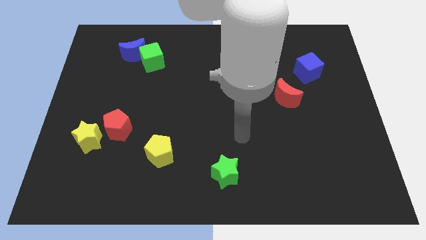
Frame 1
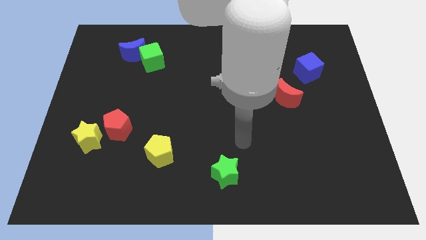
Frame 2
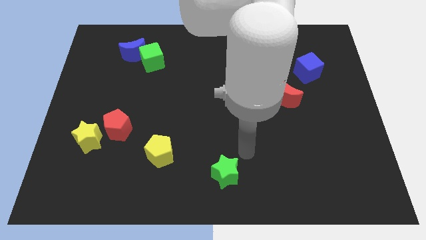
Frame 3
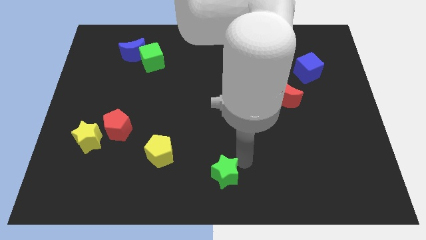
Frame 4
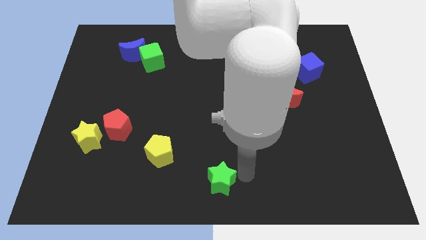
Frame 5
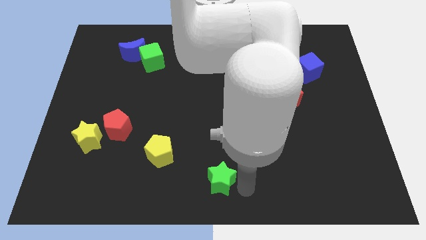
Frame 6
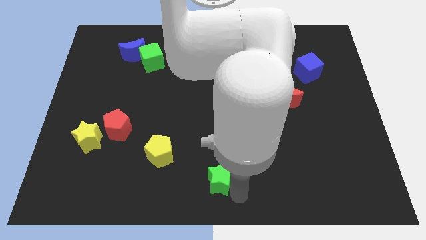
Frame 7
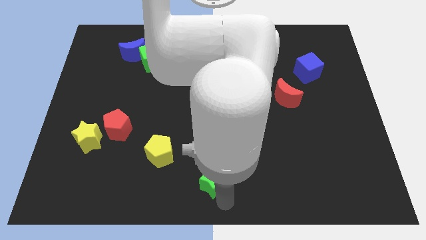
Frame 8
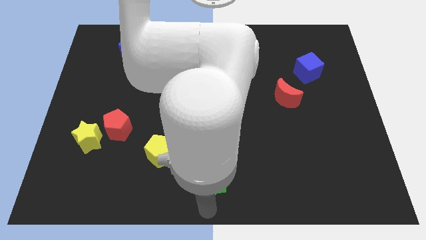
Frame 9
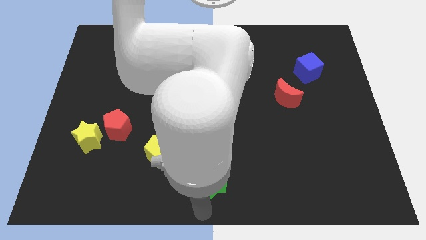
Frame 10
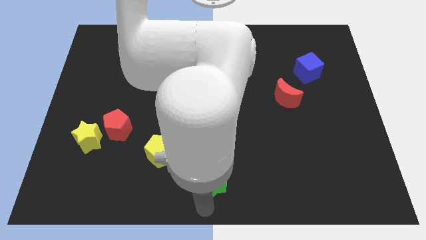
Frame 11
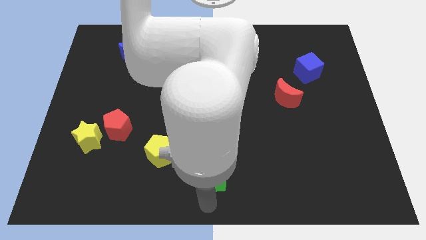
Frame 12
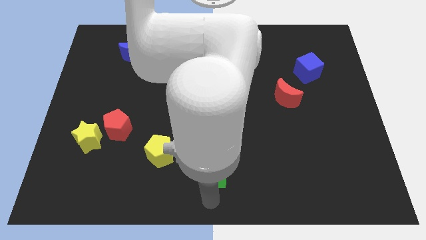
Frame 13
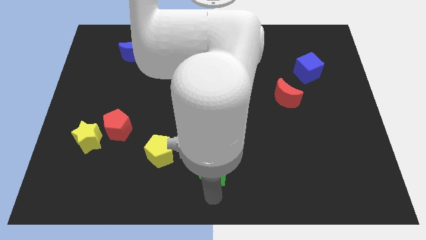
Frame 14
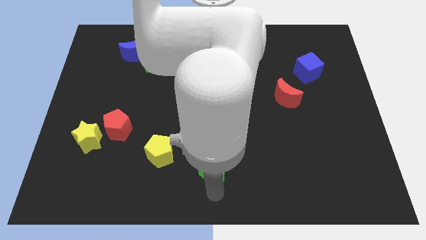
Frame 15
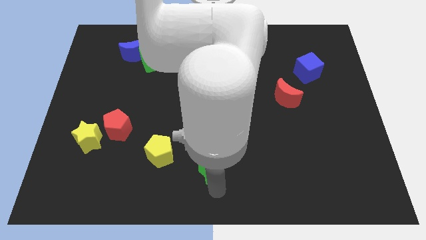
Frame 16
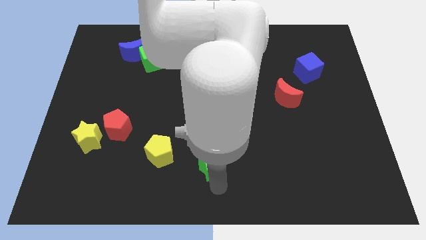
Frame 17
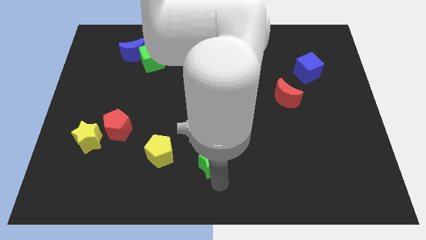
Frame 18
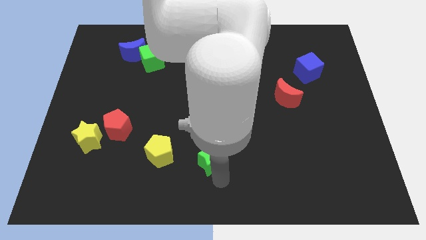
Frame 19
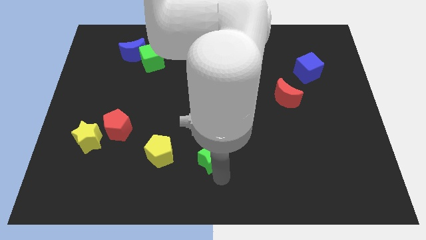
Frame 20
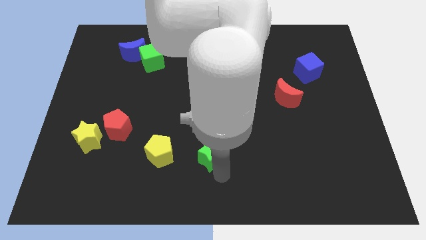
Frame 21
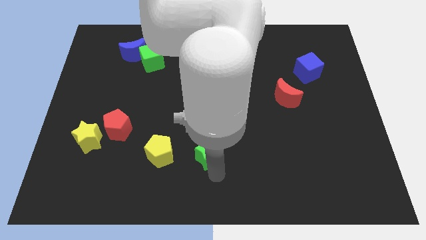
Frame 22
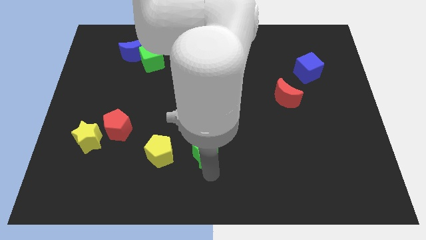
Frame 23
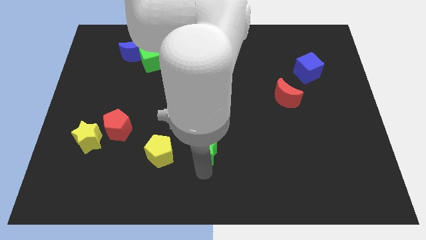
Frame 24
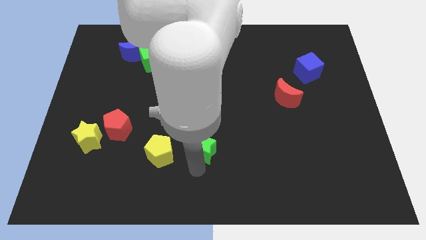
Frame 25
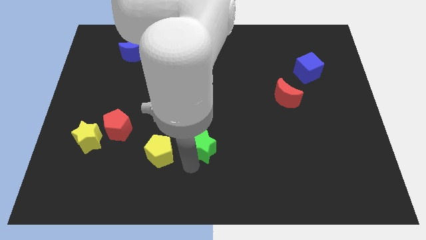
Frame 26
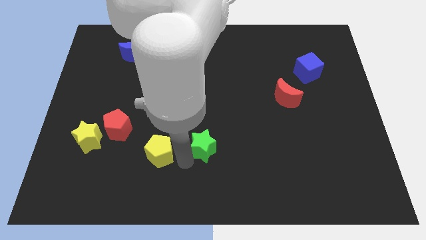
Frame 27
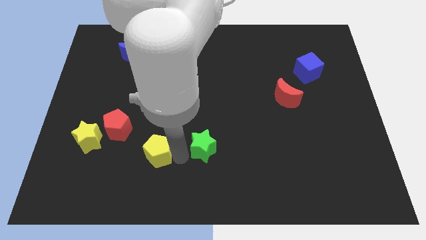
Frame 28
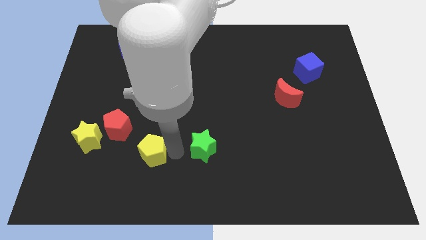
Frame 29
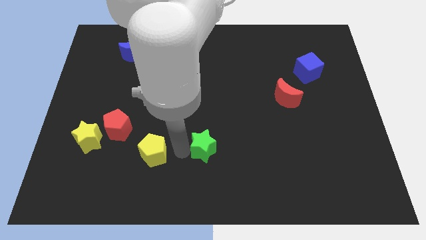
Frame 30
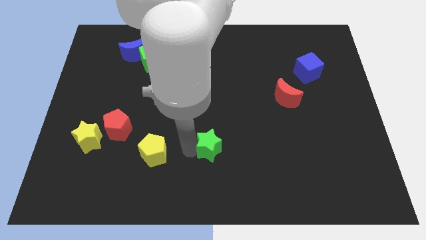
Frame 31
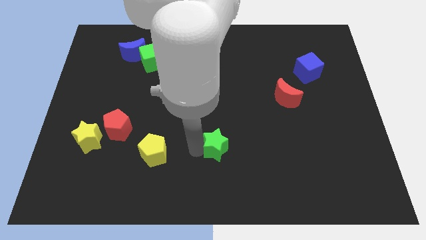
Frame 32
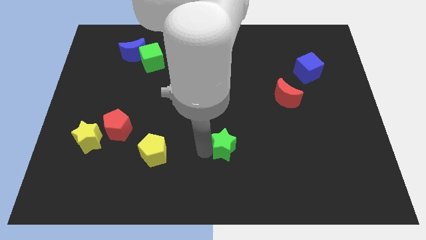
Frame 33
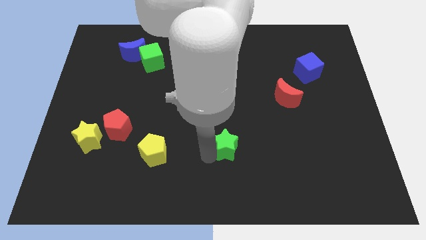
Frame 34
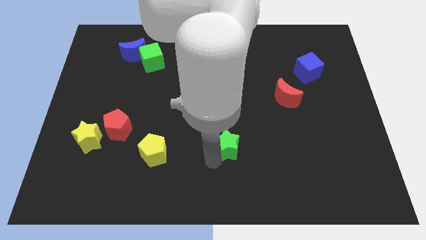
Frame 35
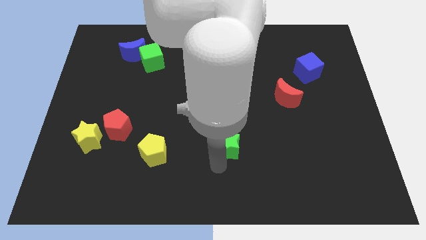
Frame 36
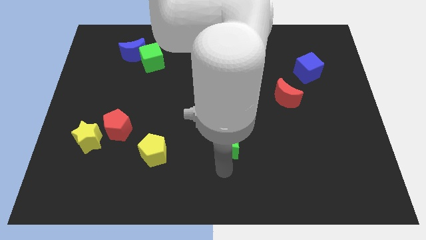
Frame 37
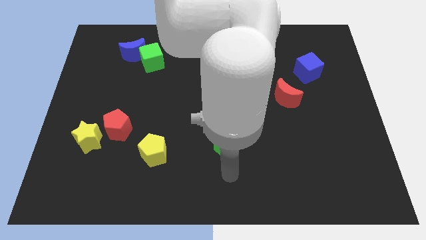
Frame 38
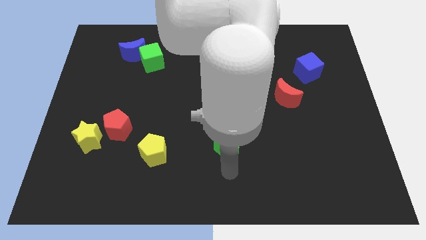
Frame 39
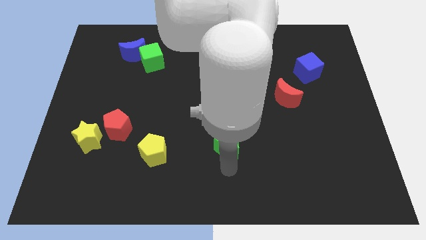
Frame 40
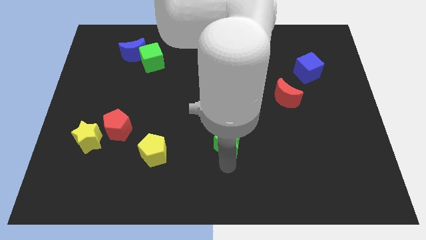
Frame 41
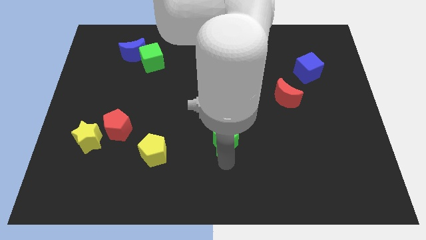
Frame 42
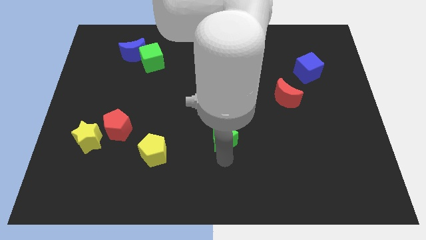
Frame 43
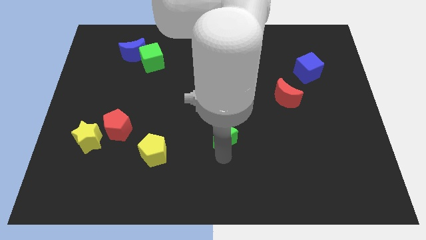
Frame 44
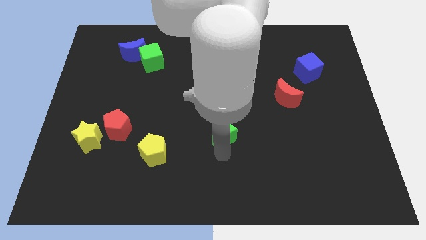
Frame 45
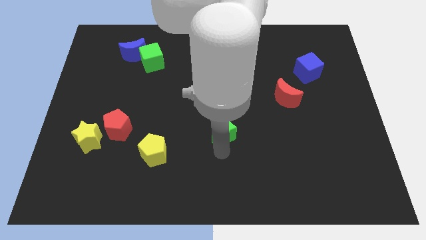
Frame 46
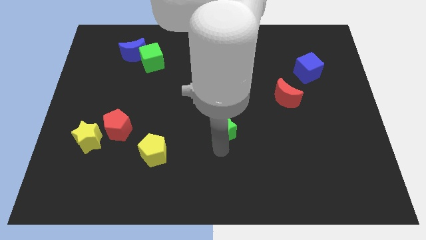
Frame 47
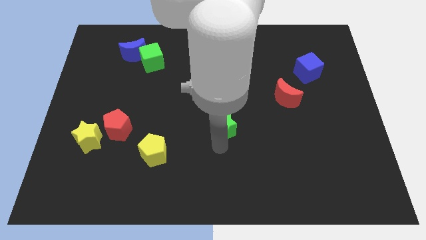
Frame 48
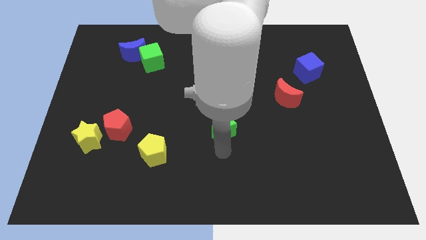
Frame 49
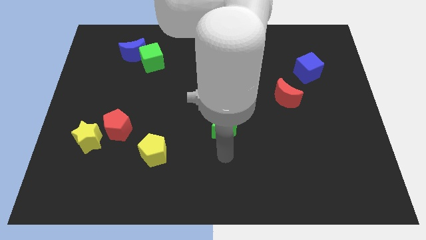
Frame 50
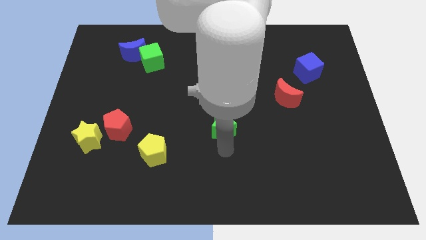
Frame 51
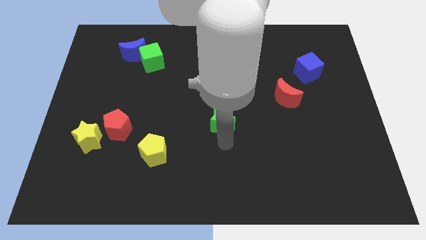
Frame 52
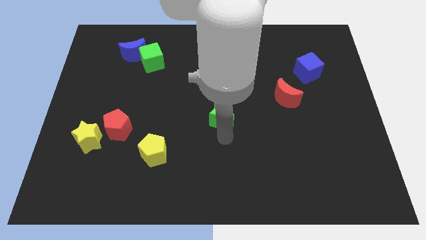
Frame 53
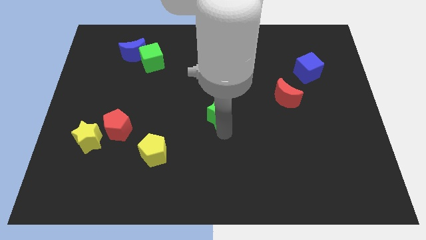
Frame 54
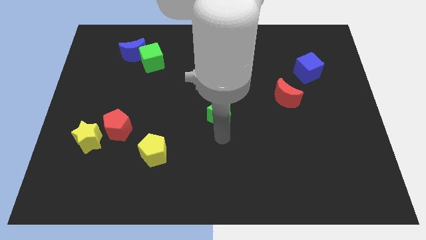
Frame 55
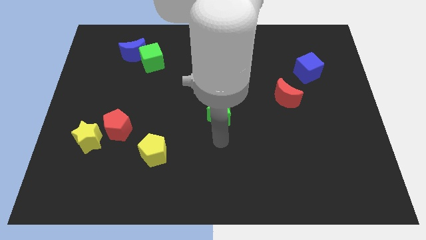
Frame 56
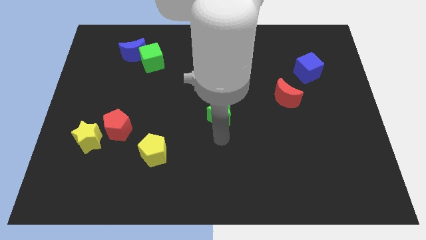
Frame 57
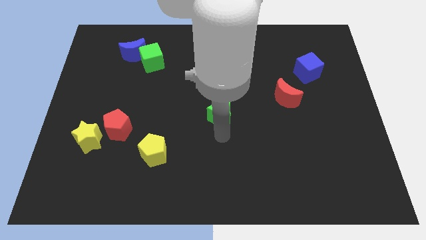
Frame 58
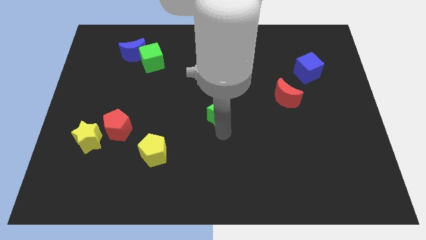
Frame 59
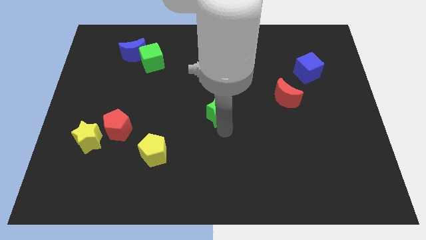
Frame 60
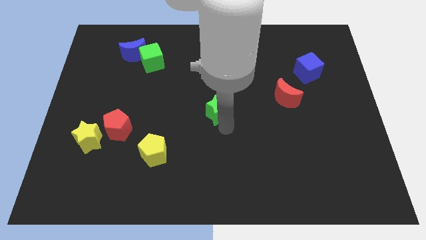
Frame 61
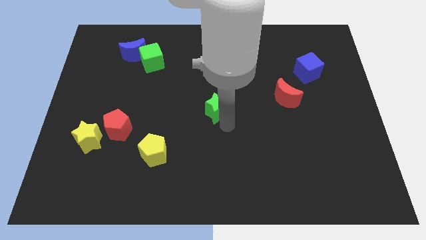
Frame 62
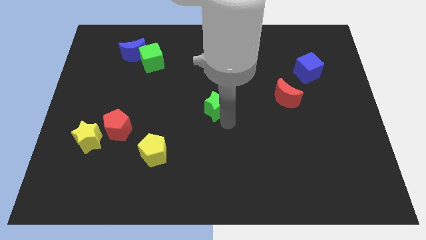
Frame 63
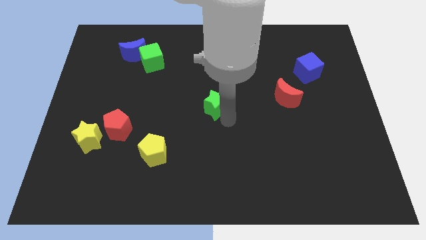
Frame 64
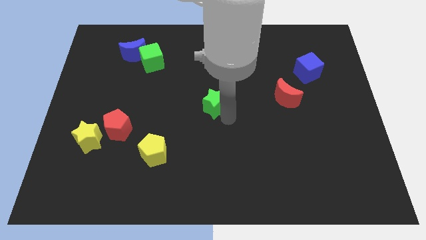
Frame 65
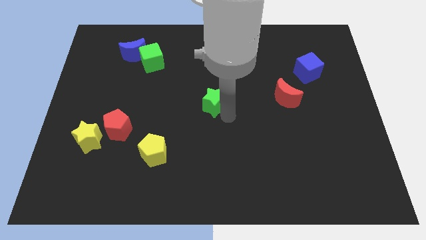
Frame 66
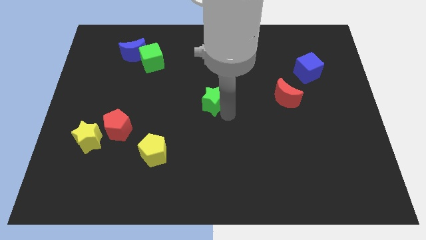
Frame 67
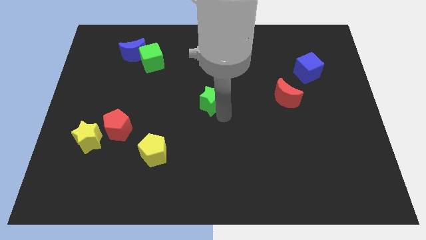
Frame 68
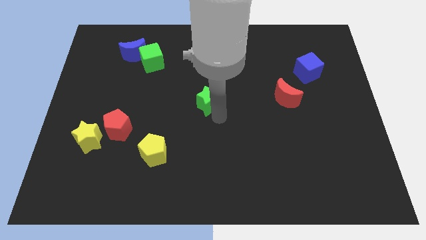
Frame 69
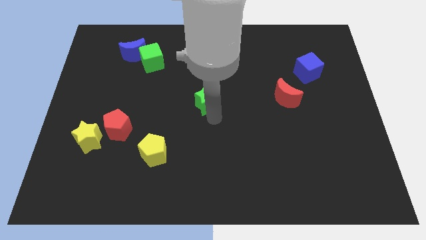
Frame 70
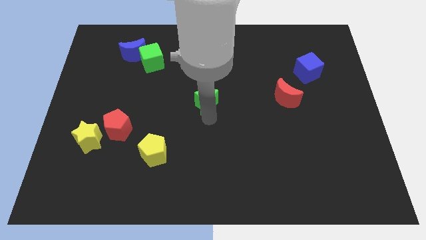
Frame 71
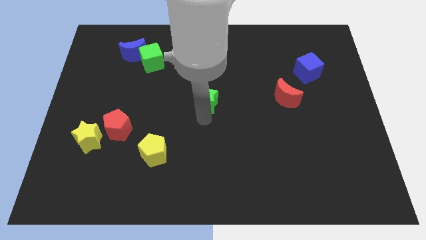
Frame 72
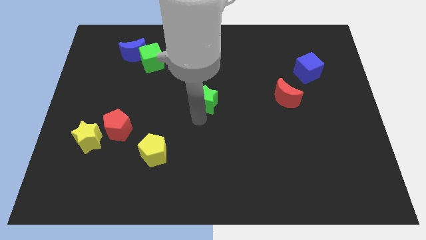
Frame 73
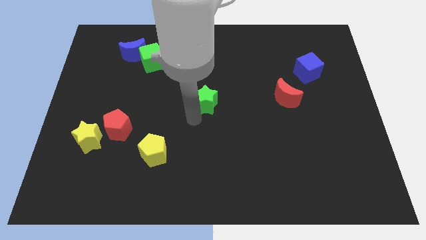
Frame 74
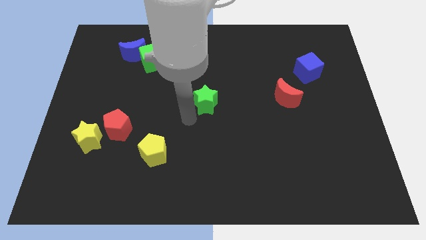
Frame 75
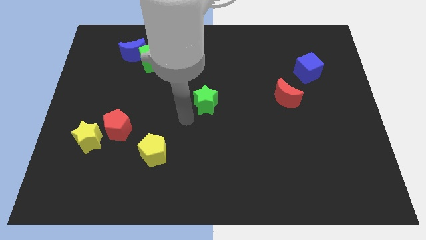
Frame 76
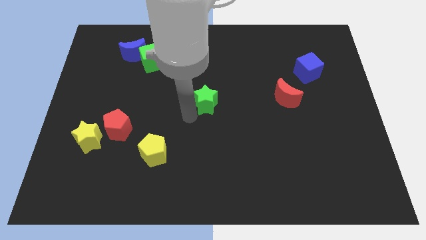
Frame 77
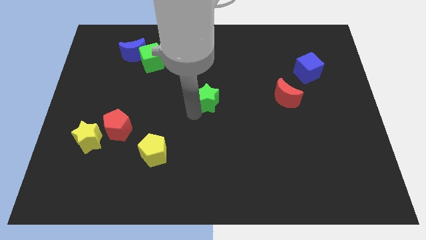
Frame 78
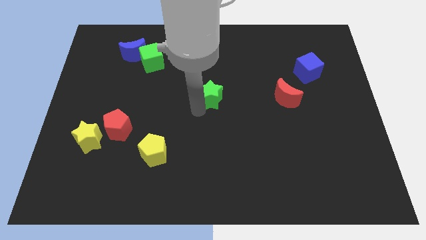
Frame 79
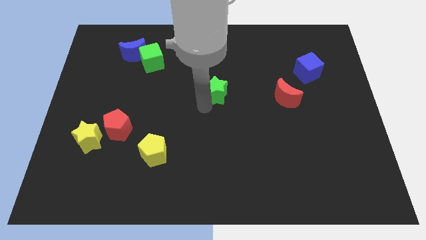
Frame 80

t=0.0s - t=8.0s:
push the green star up

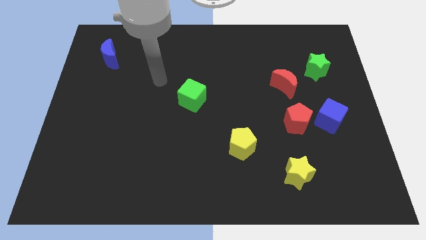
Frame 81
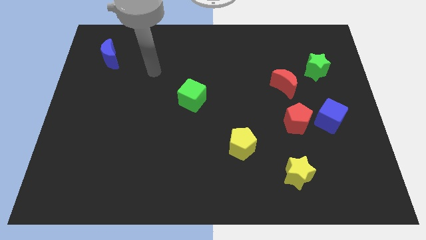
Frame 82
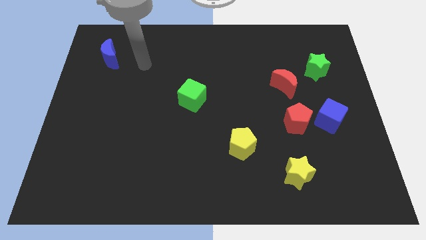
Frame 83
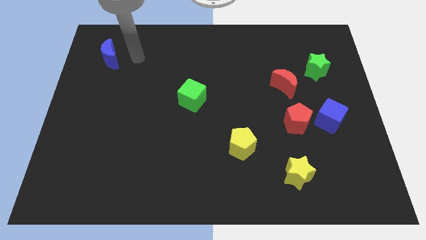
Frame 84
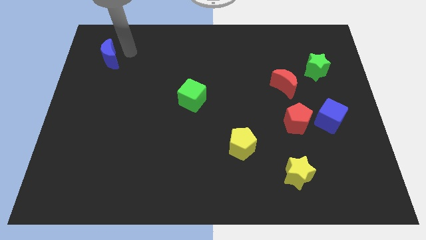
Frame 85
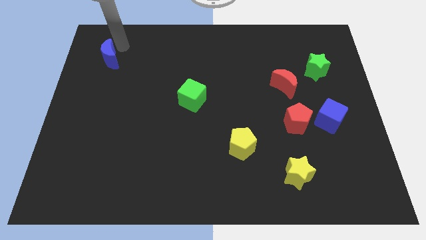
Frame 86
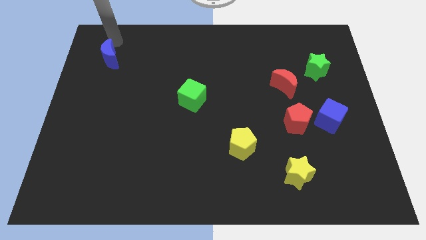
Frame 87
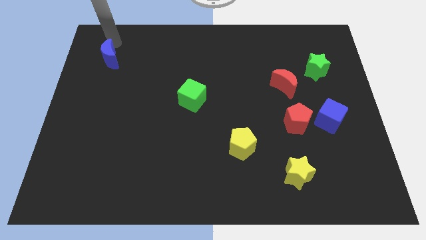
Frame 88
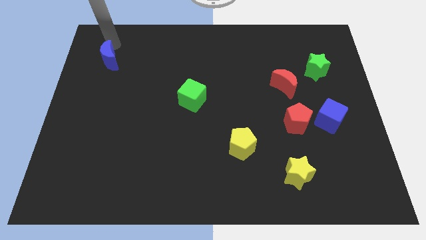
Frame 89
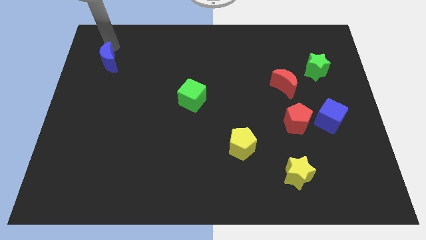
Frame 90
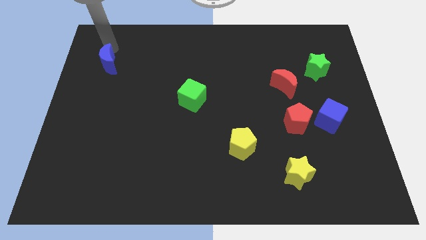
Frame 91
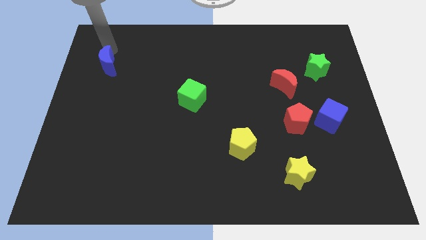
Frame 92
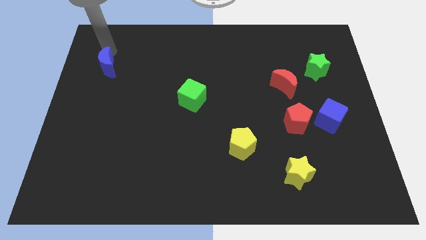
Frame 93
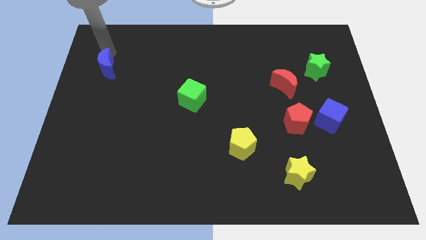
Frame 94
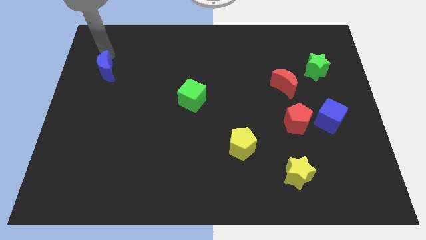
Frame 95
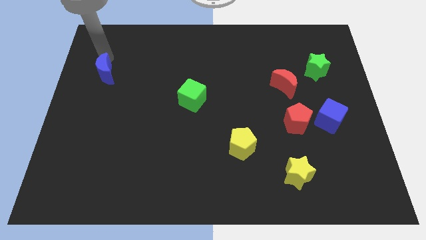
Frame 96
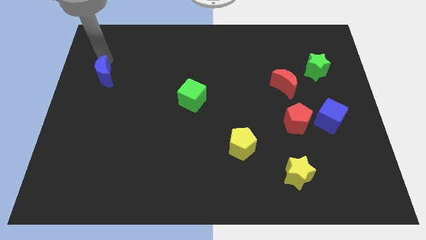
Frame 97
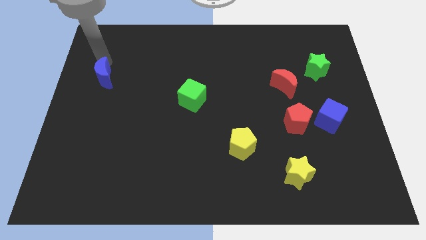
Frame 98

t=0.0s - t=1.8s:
slightly move the blue moon down
